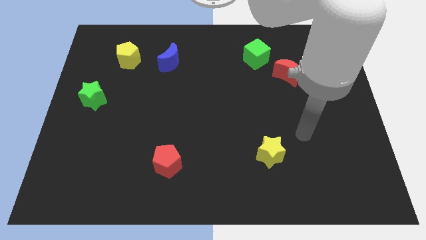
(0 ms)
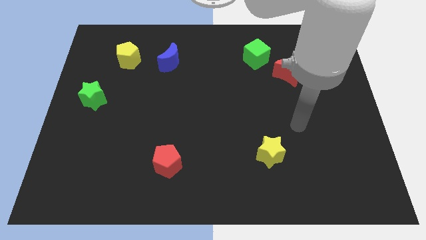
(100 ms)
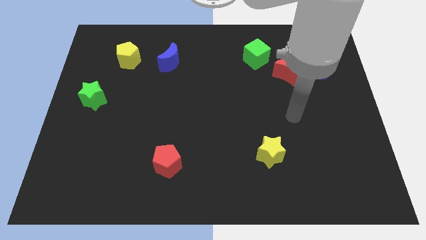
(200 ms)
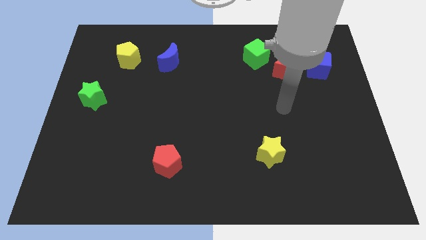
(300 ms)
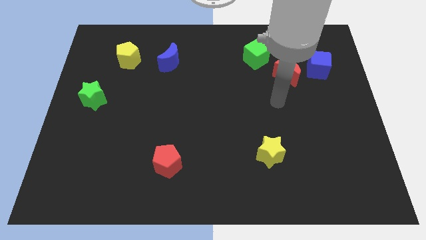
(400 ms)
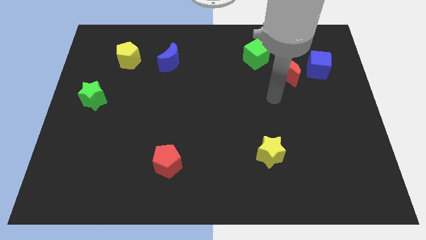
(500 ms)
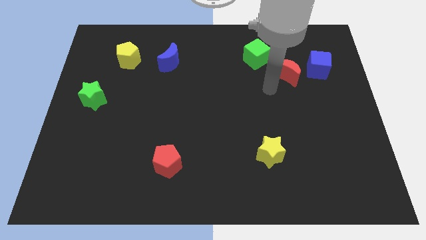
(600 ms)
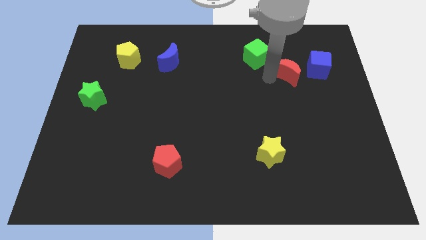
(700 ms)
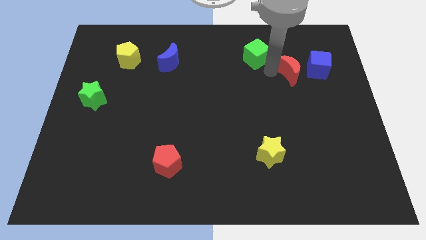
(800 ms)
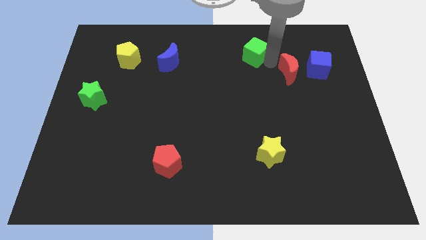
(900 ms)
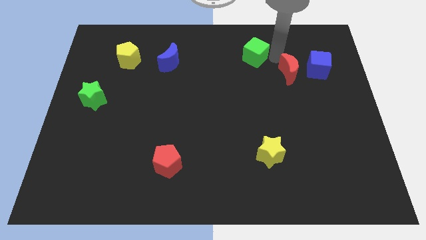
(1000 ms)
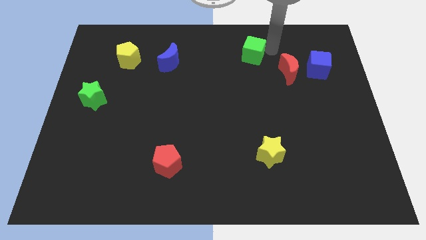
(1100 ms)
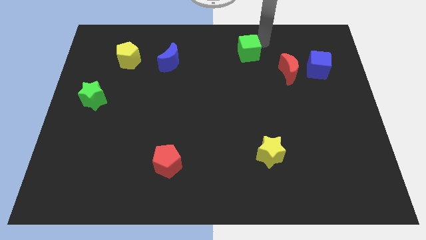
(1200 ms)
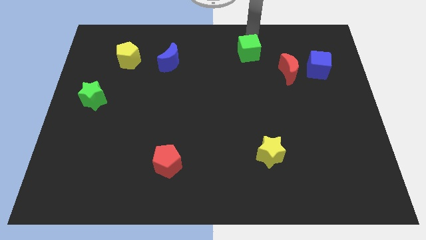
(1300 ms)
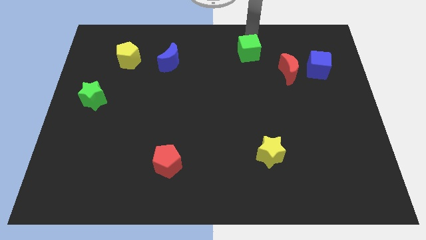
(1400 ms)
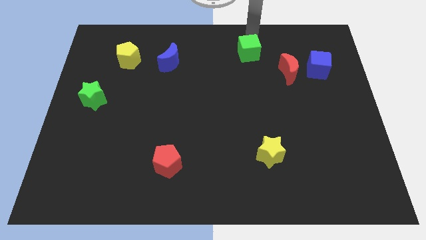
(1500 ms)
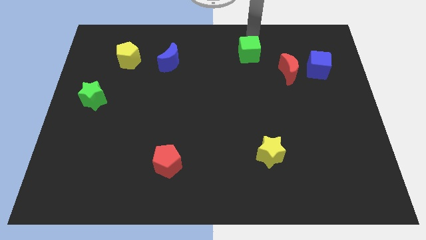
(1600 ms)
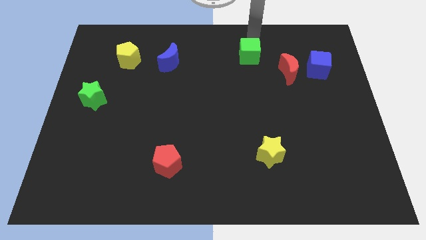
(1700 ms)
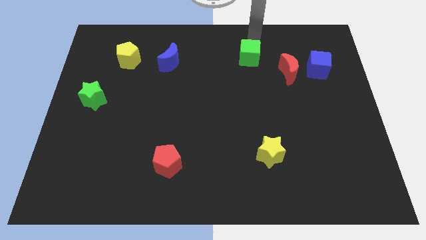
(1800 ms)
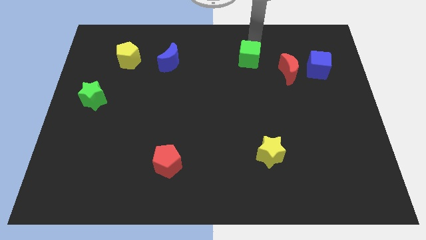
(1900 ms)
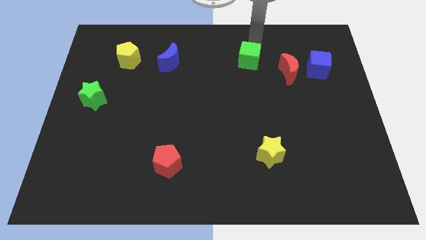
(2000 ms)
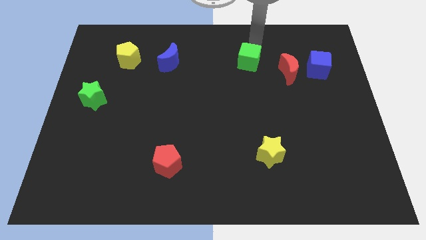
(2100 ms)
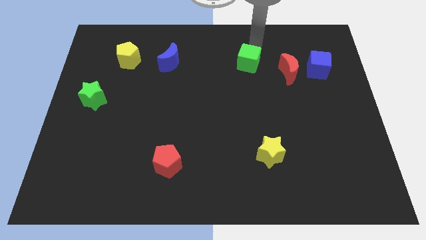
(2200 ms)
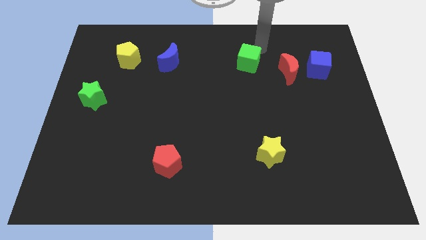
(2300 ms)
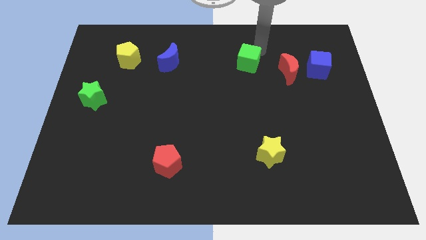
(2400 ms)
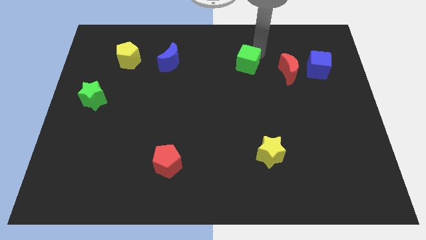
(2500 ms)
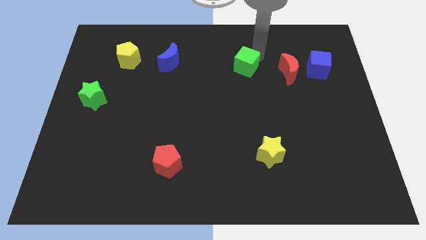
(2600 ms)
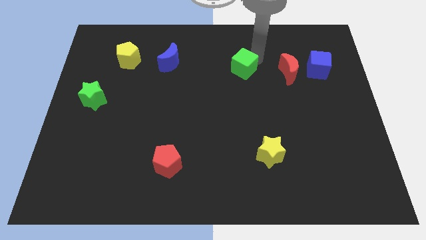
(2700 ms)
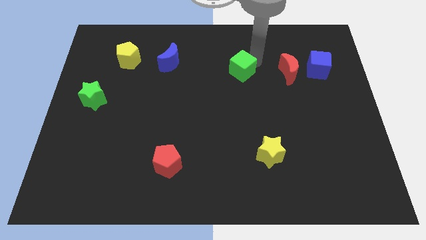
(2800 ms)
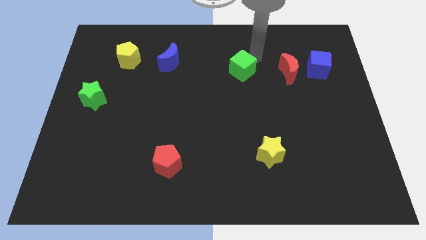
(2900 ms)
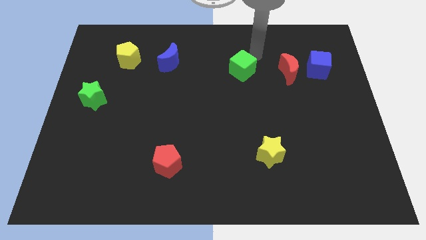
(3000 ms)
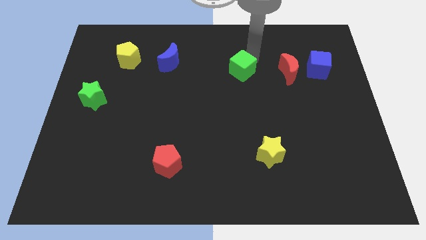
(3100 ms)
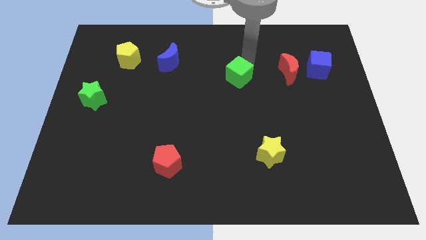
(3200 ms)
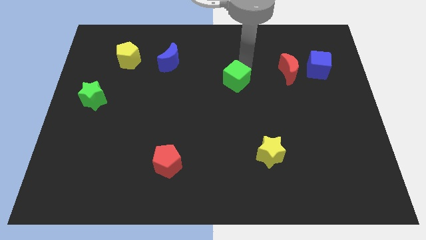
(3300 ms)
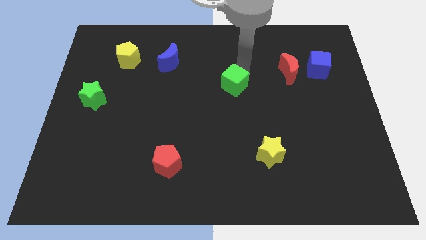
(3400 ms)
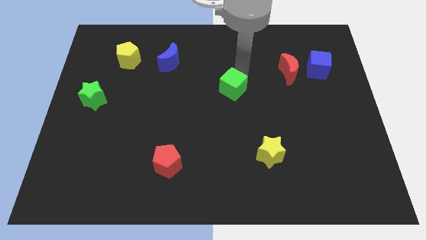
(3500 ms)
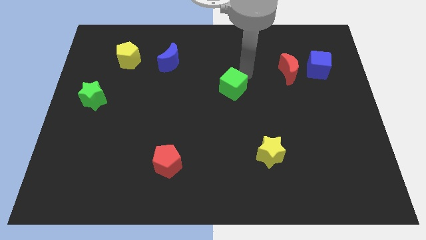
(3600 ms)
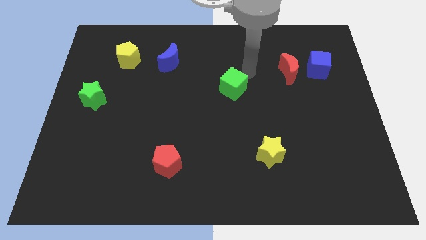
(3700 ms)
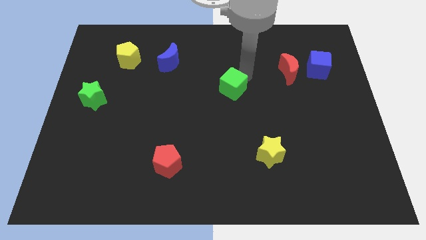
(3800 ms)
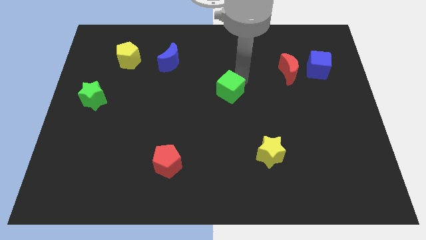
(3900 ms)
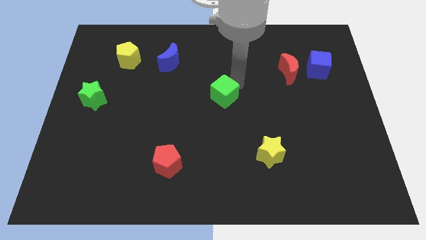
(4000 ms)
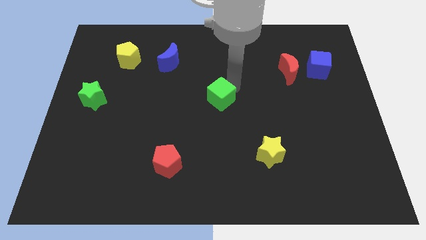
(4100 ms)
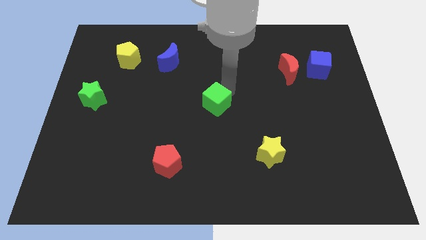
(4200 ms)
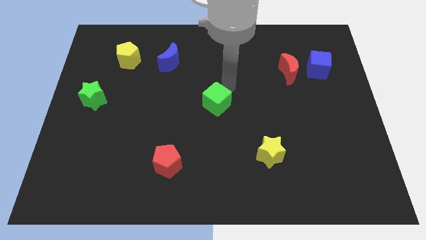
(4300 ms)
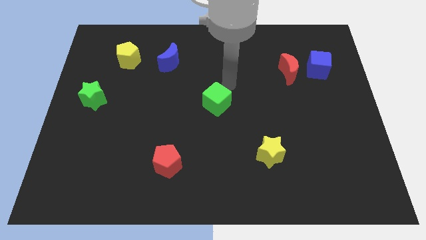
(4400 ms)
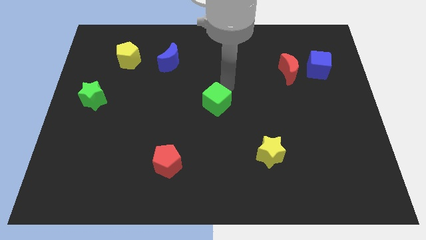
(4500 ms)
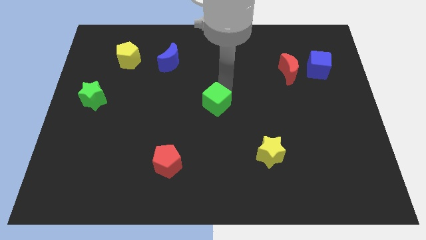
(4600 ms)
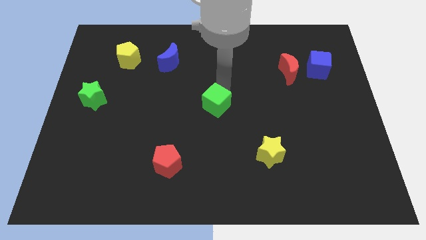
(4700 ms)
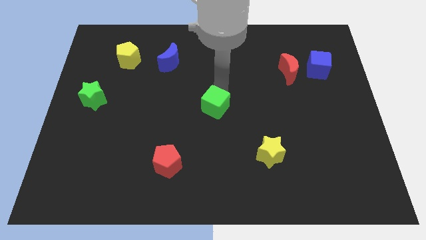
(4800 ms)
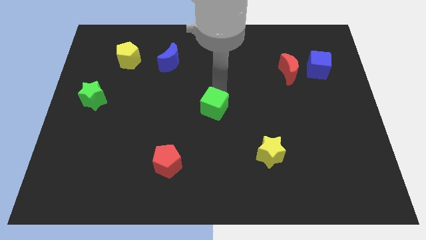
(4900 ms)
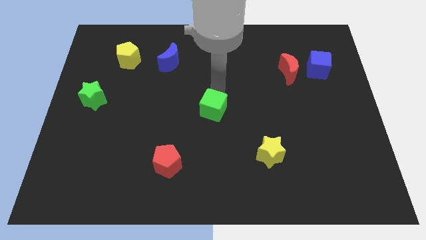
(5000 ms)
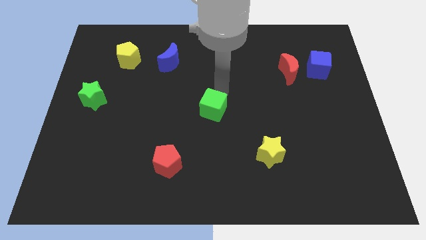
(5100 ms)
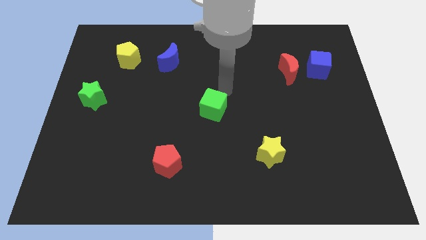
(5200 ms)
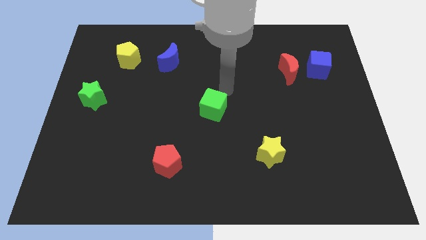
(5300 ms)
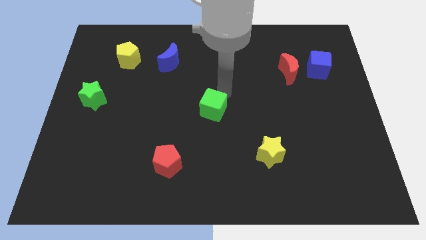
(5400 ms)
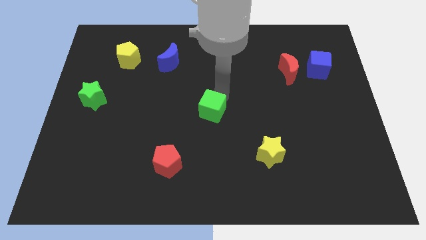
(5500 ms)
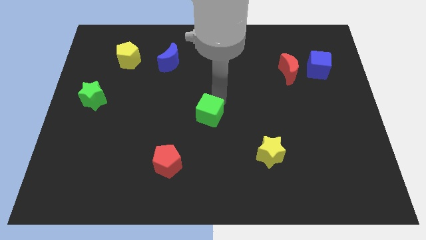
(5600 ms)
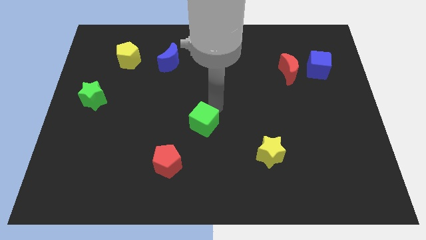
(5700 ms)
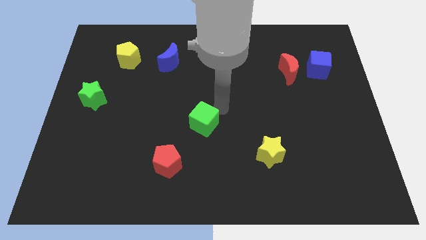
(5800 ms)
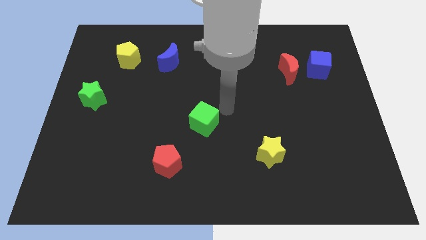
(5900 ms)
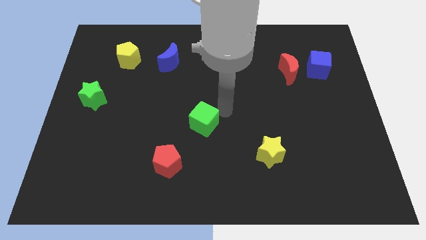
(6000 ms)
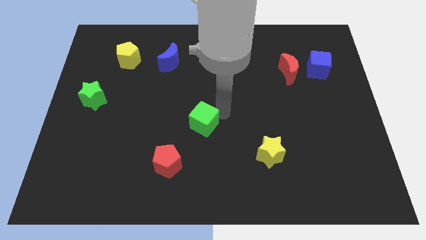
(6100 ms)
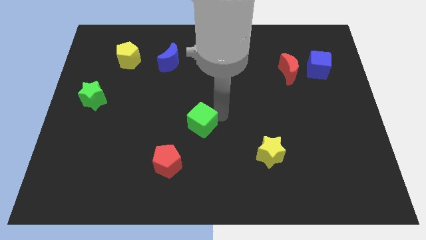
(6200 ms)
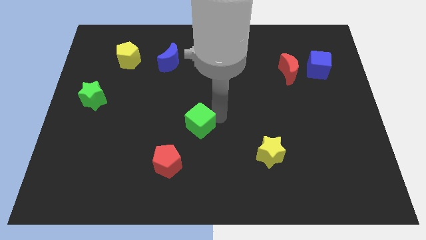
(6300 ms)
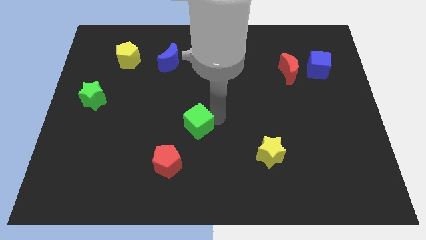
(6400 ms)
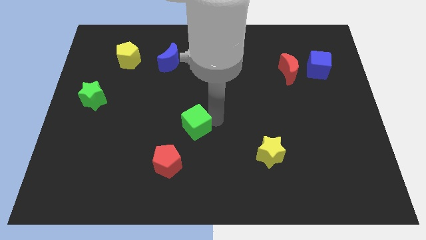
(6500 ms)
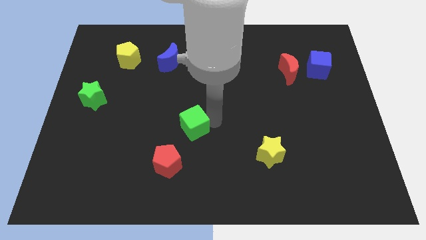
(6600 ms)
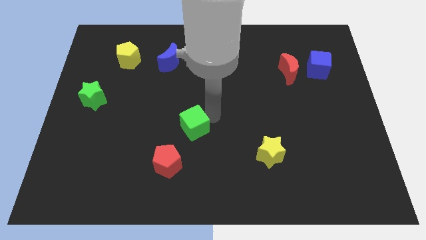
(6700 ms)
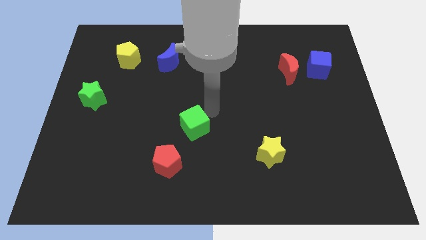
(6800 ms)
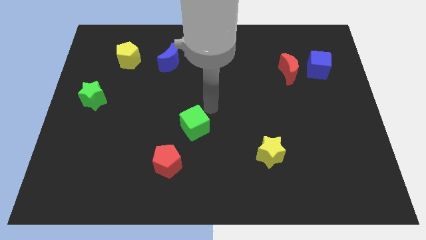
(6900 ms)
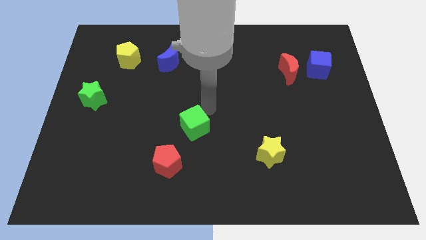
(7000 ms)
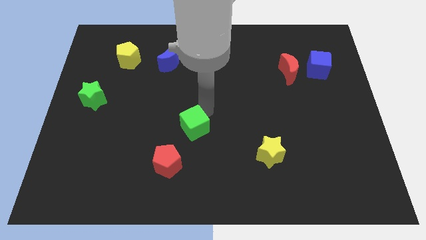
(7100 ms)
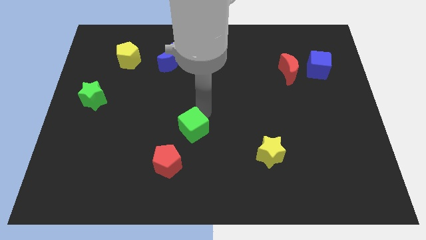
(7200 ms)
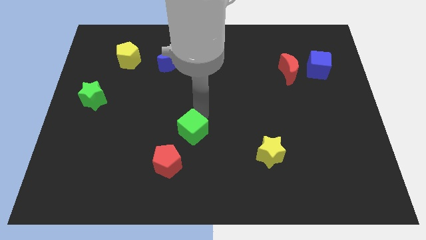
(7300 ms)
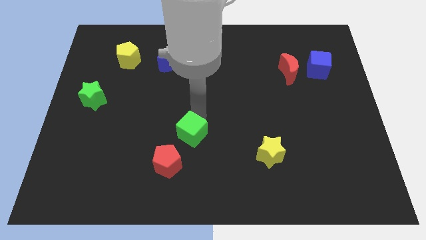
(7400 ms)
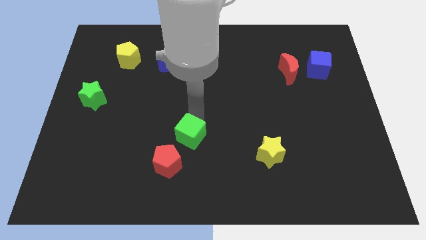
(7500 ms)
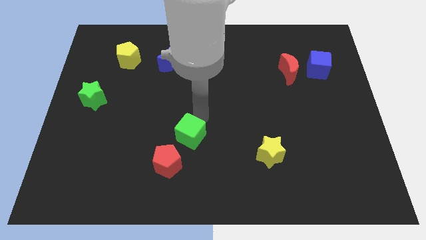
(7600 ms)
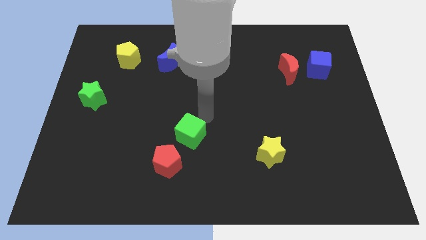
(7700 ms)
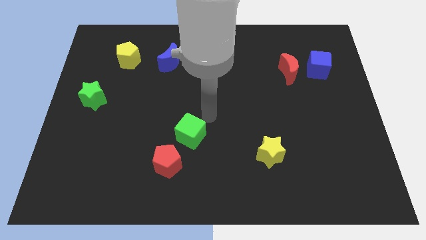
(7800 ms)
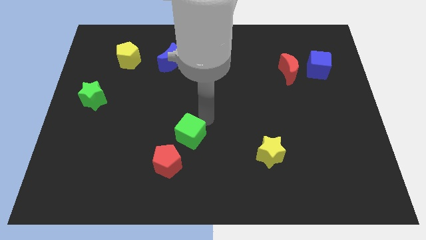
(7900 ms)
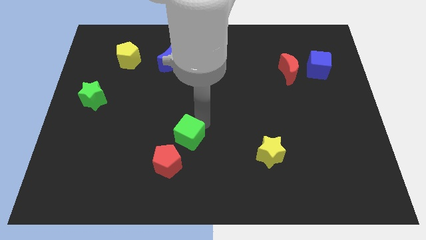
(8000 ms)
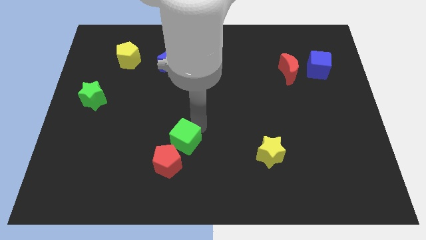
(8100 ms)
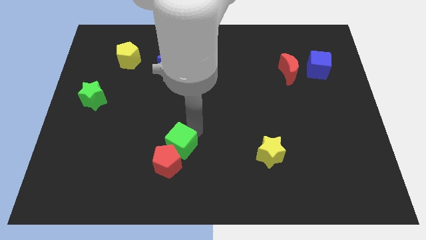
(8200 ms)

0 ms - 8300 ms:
put the green cube next to the red pentagon
